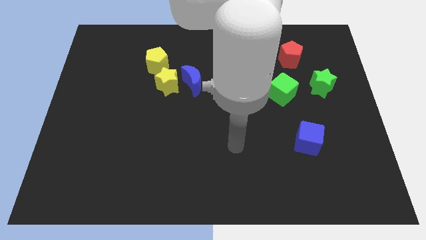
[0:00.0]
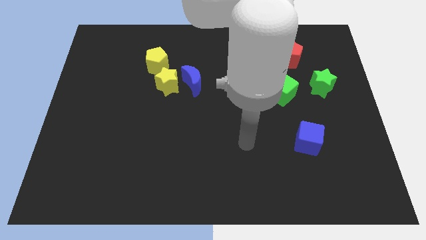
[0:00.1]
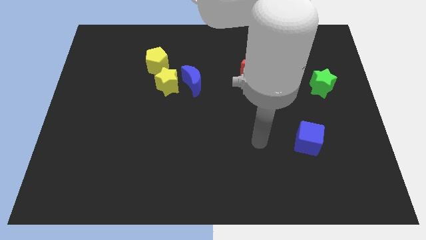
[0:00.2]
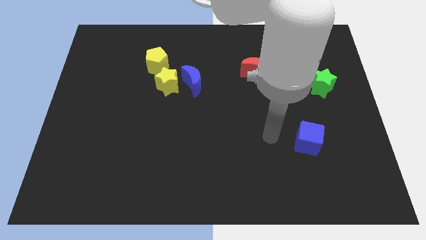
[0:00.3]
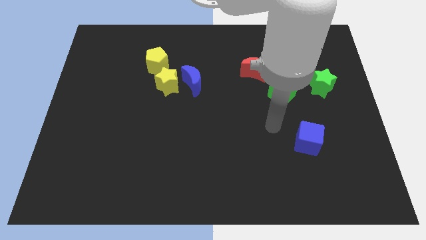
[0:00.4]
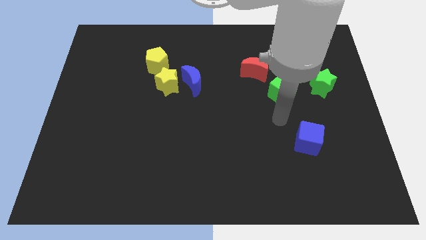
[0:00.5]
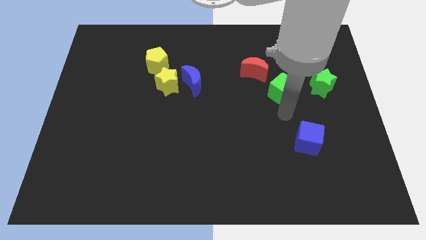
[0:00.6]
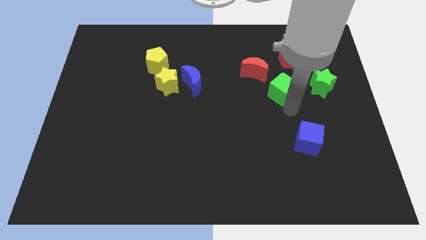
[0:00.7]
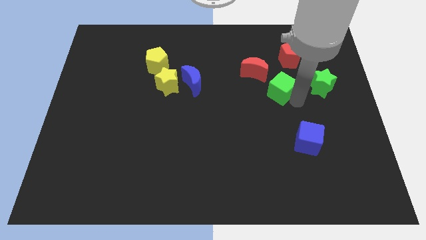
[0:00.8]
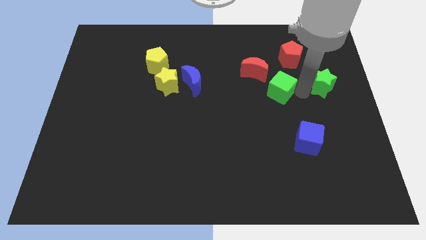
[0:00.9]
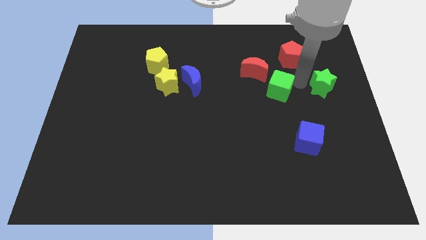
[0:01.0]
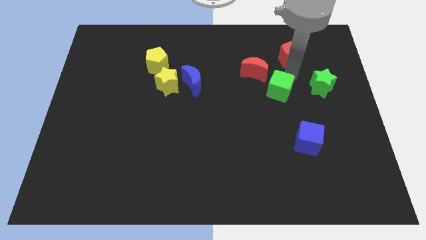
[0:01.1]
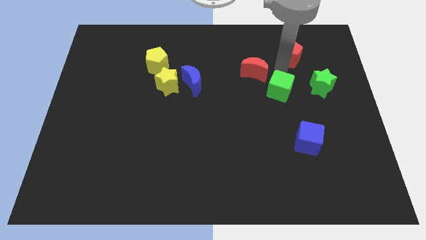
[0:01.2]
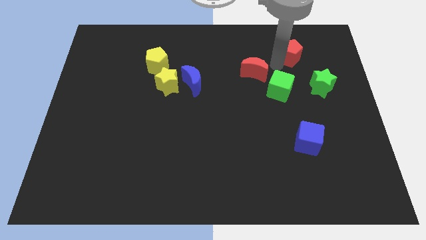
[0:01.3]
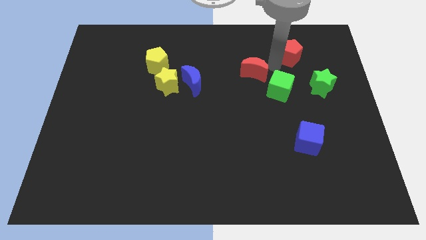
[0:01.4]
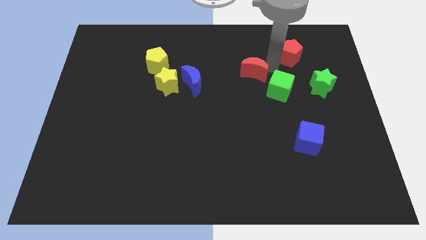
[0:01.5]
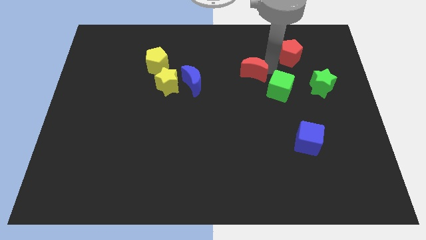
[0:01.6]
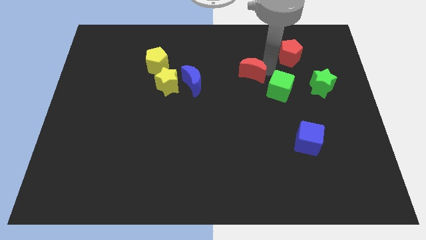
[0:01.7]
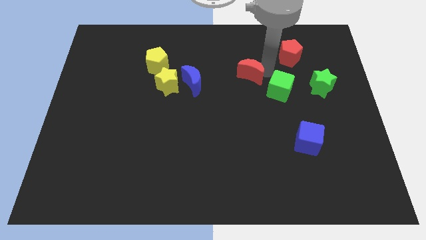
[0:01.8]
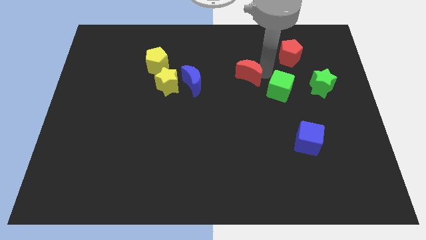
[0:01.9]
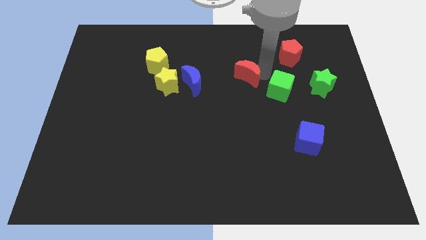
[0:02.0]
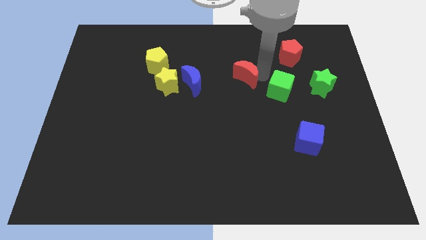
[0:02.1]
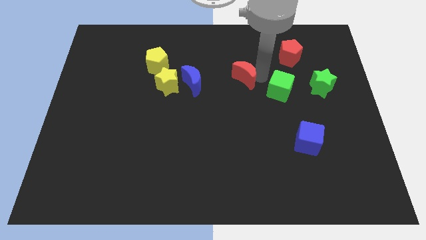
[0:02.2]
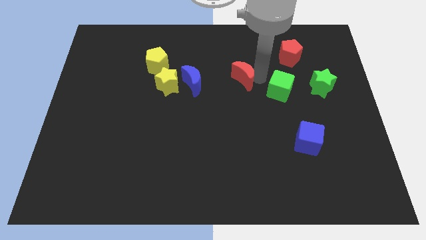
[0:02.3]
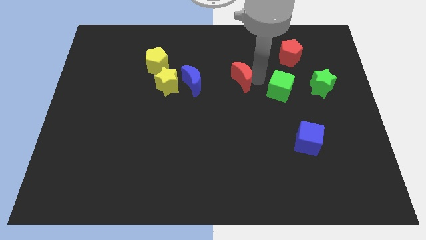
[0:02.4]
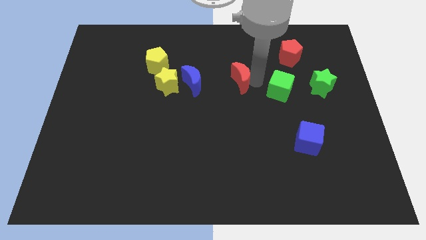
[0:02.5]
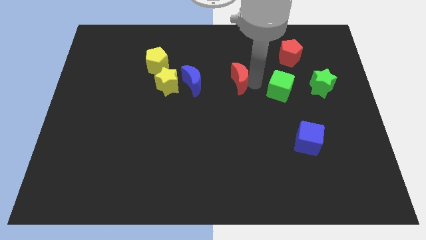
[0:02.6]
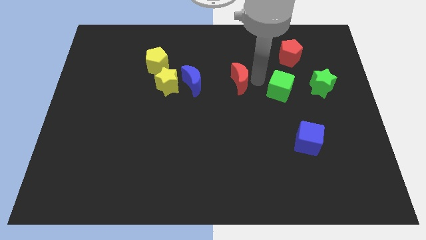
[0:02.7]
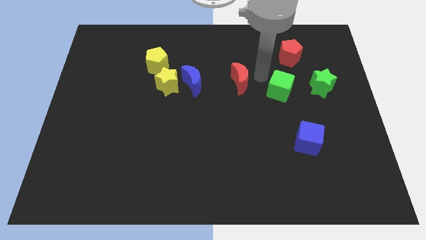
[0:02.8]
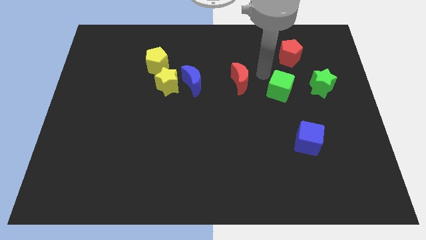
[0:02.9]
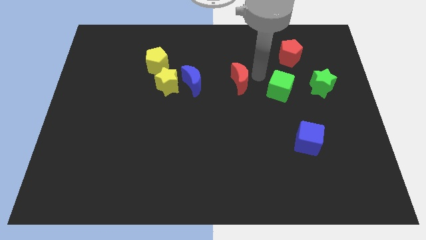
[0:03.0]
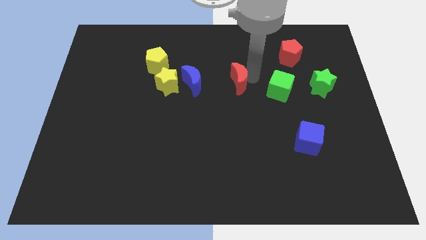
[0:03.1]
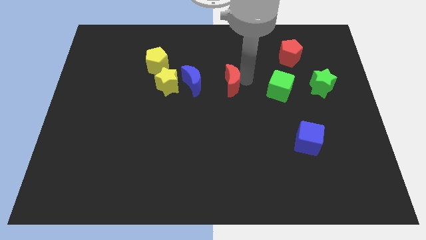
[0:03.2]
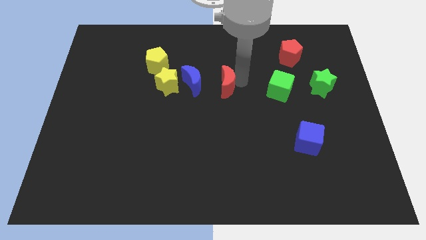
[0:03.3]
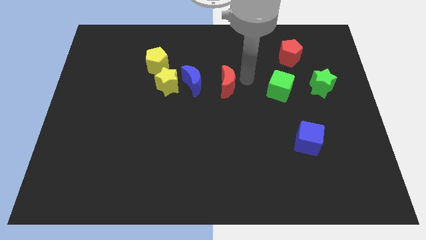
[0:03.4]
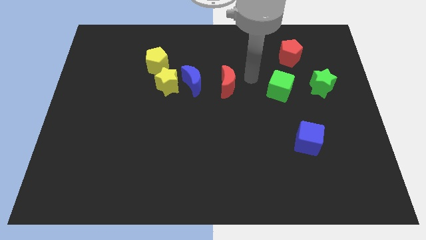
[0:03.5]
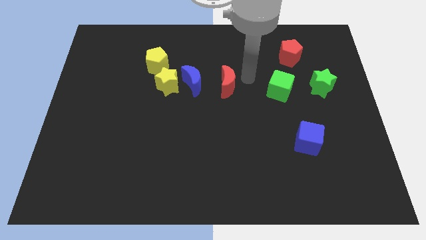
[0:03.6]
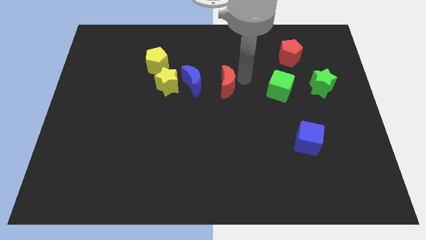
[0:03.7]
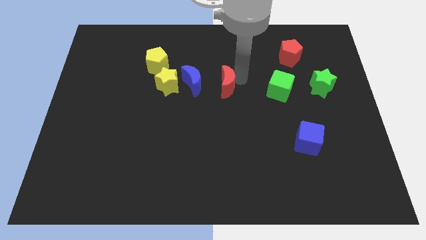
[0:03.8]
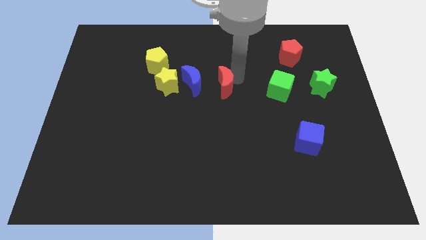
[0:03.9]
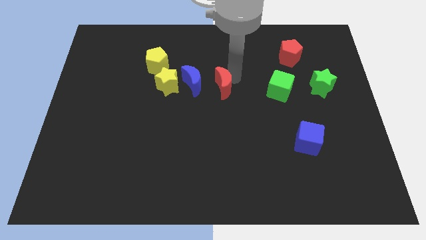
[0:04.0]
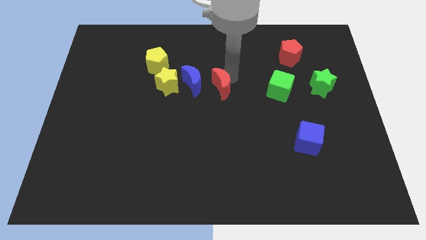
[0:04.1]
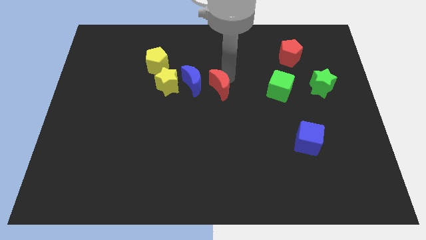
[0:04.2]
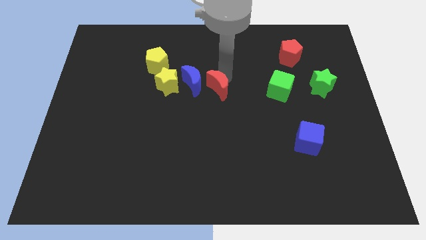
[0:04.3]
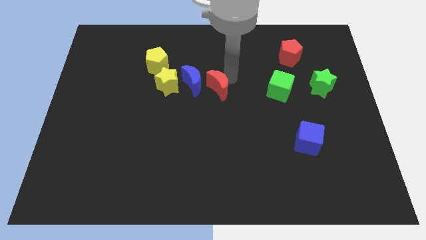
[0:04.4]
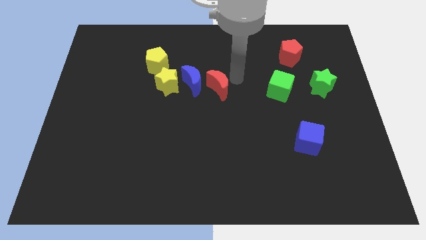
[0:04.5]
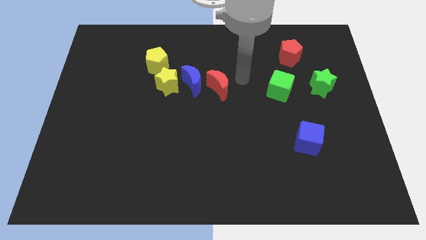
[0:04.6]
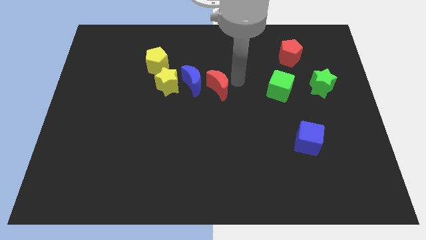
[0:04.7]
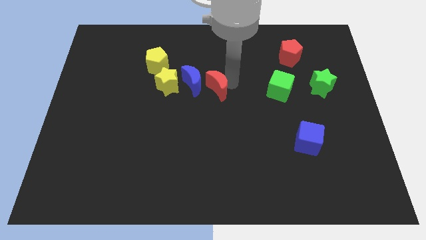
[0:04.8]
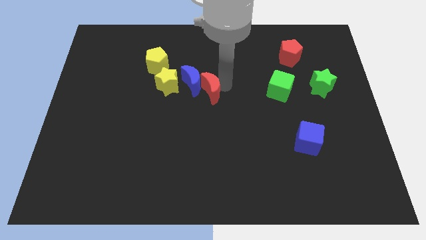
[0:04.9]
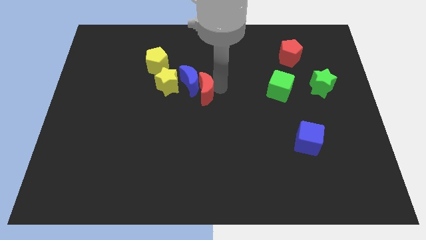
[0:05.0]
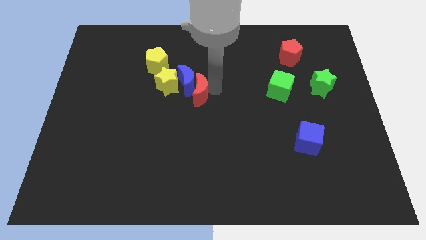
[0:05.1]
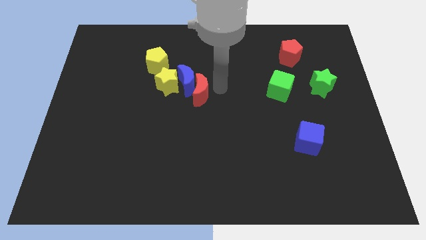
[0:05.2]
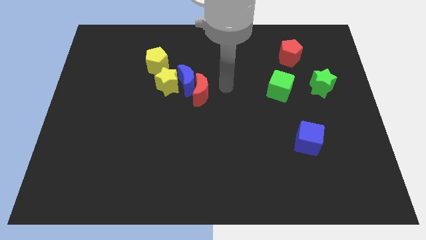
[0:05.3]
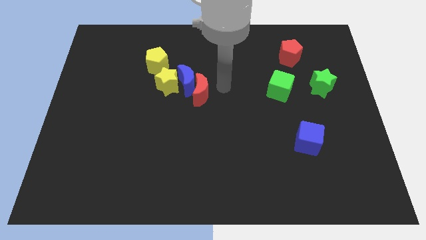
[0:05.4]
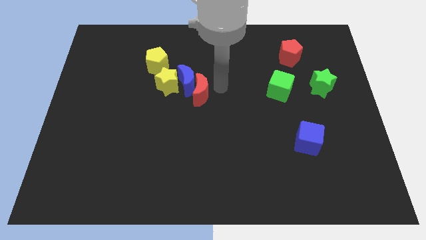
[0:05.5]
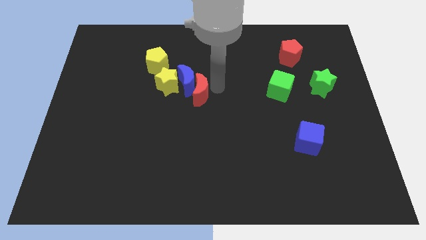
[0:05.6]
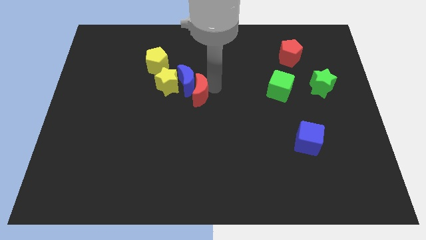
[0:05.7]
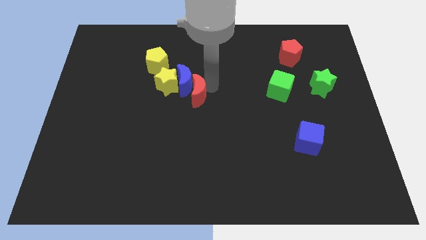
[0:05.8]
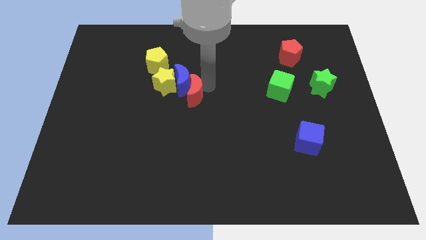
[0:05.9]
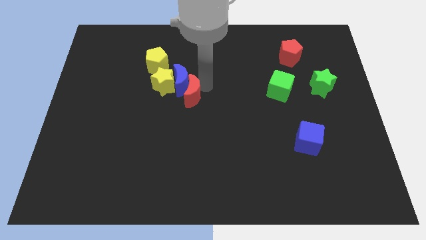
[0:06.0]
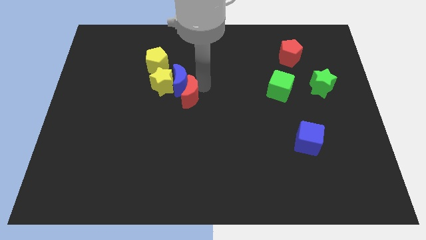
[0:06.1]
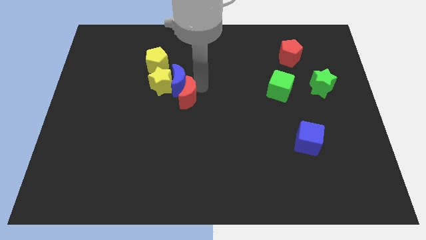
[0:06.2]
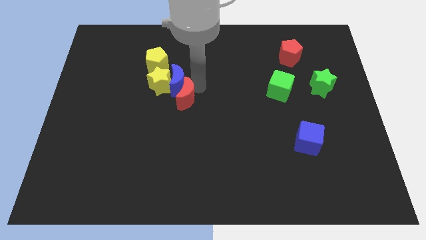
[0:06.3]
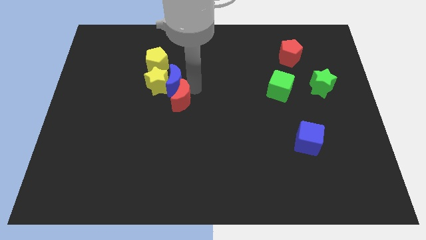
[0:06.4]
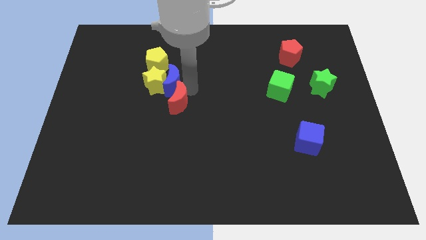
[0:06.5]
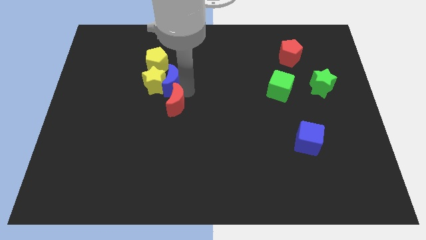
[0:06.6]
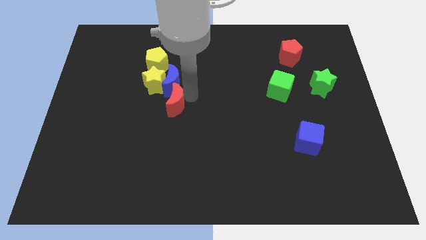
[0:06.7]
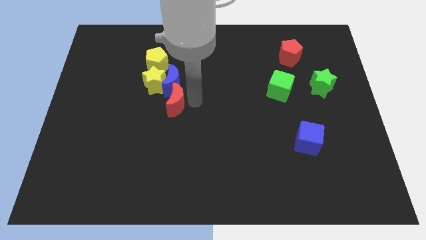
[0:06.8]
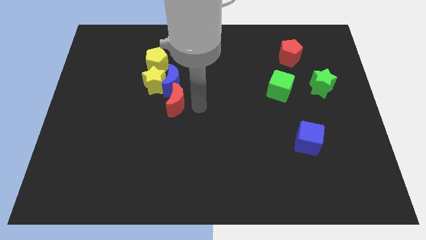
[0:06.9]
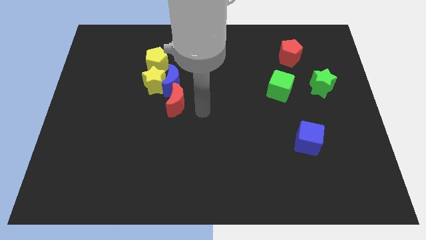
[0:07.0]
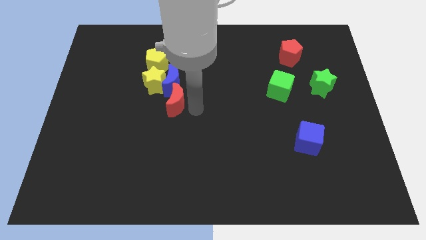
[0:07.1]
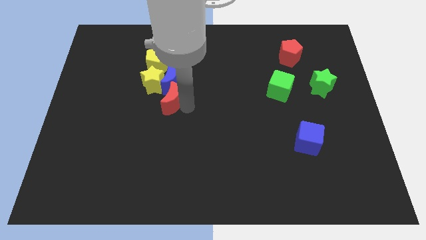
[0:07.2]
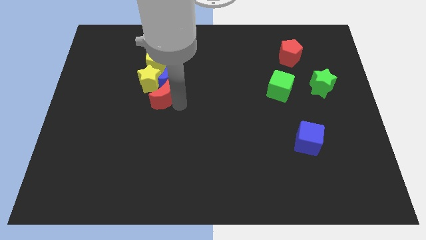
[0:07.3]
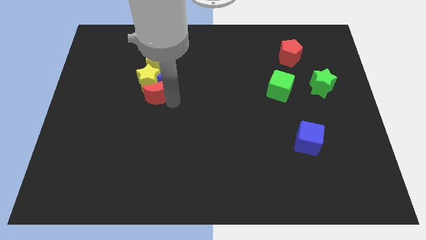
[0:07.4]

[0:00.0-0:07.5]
push the red moon to the left

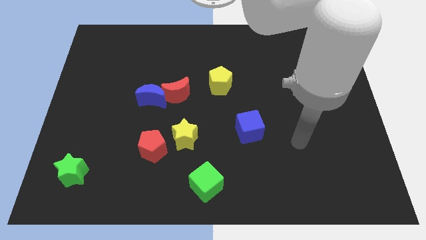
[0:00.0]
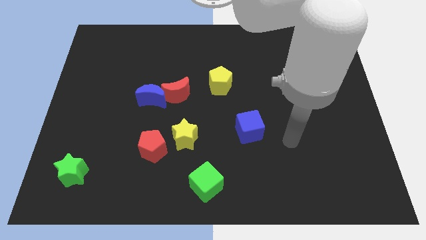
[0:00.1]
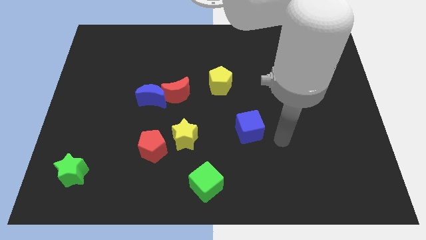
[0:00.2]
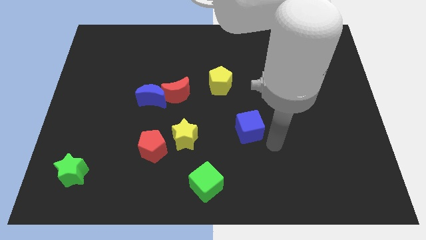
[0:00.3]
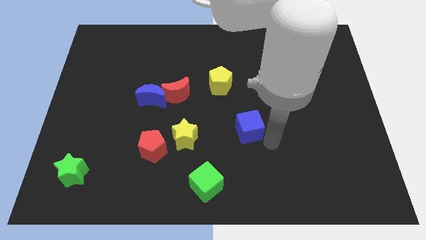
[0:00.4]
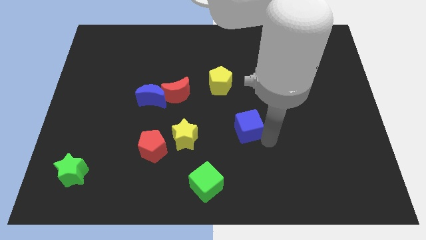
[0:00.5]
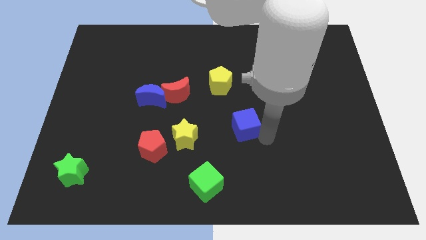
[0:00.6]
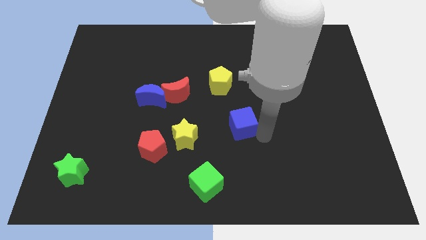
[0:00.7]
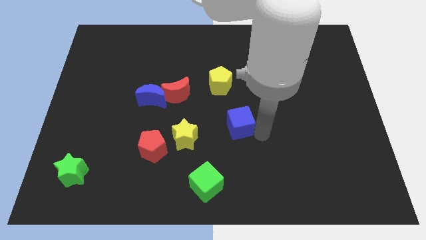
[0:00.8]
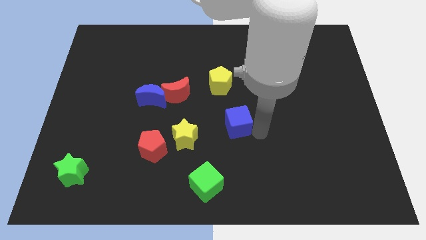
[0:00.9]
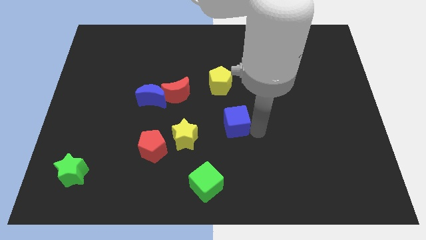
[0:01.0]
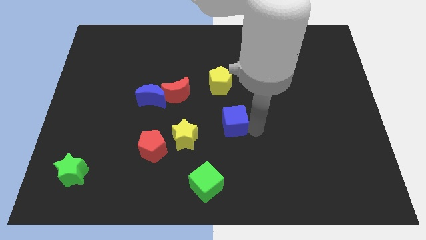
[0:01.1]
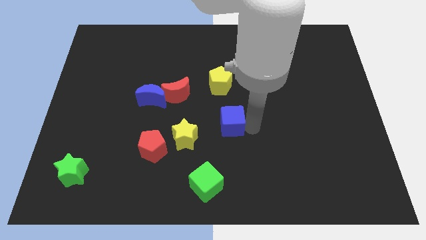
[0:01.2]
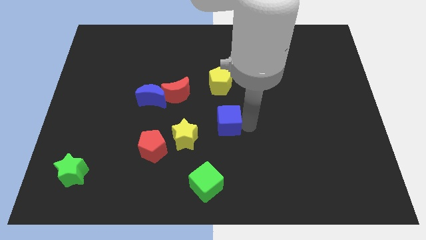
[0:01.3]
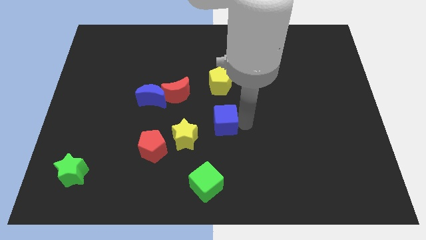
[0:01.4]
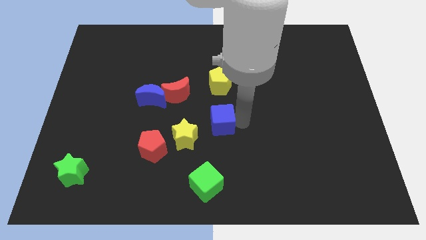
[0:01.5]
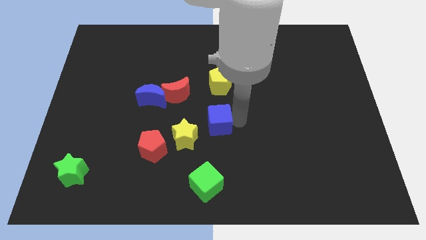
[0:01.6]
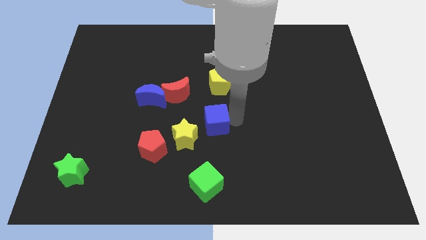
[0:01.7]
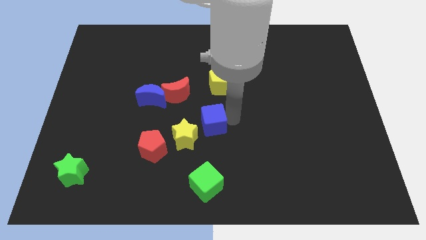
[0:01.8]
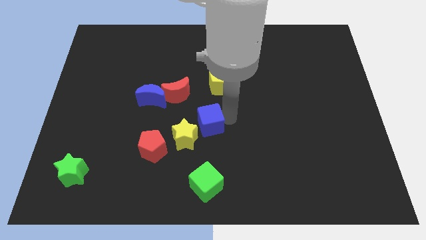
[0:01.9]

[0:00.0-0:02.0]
slide the blue cube upwards and to the left a little bit
